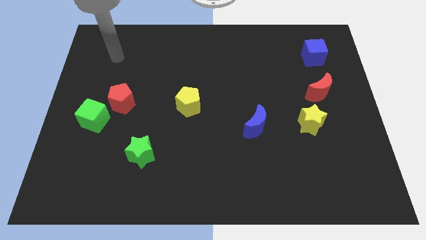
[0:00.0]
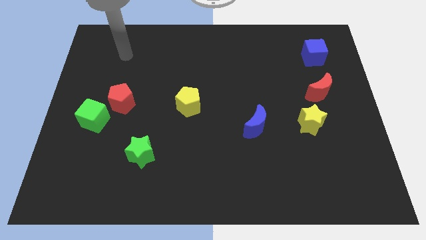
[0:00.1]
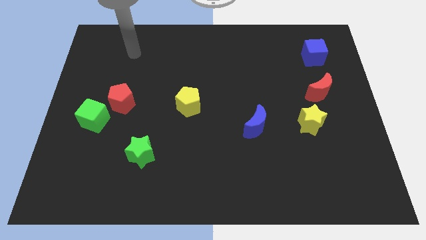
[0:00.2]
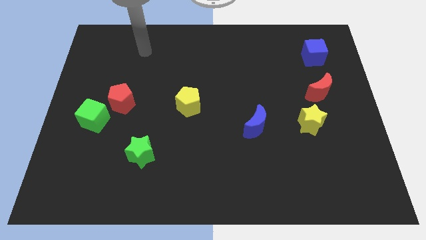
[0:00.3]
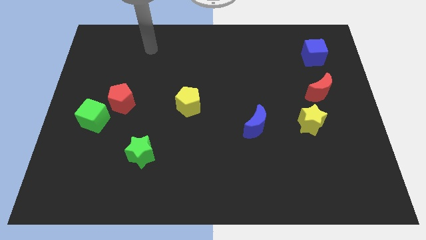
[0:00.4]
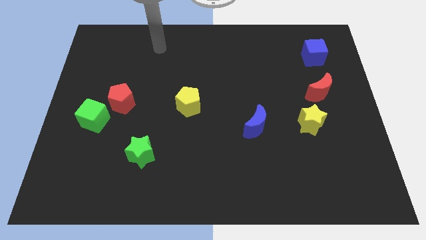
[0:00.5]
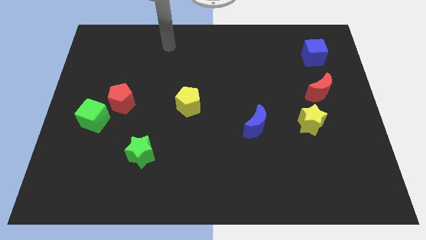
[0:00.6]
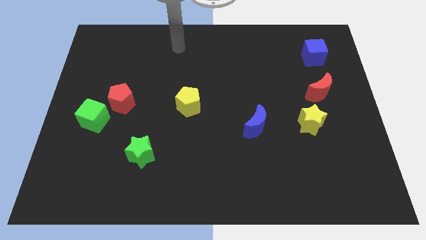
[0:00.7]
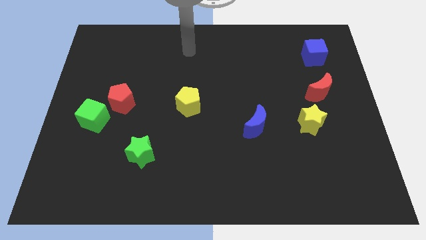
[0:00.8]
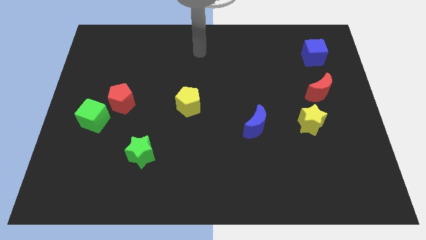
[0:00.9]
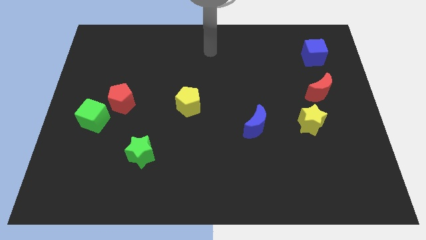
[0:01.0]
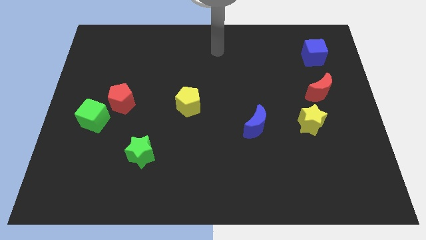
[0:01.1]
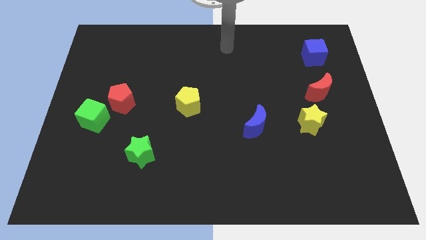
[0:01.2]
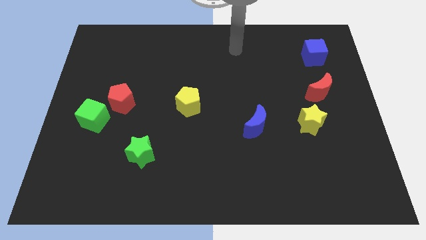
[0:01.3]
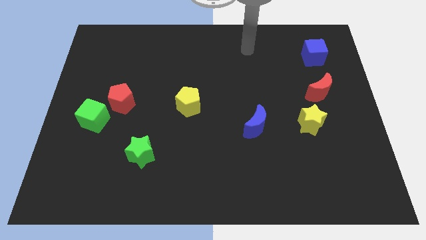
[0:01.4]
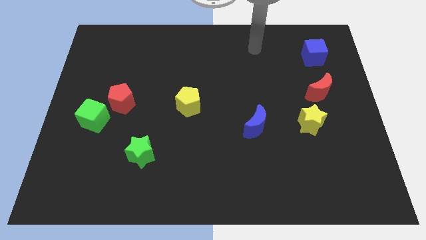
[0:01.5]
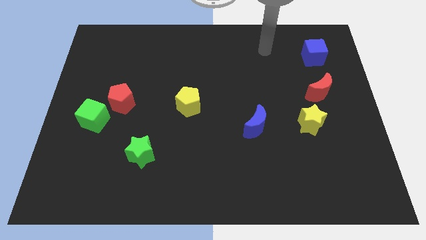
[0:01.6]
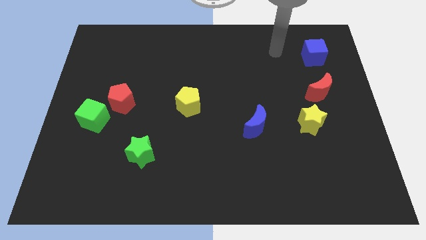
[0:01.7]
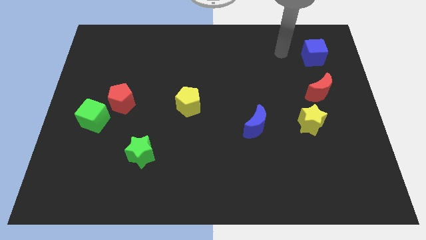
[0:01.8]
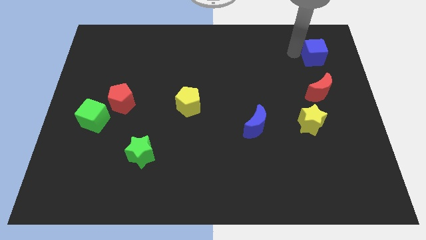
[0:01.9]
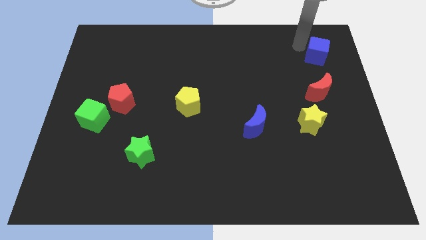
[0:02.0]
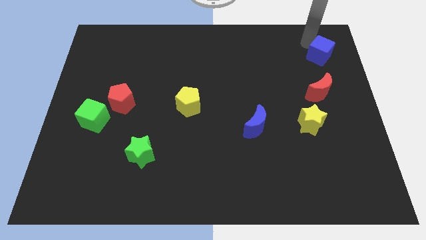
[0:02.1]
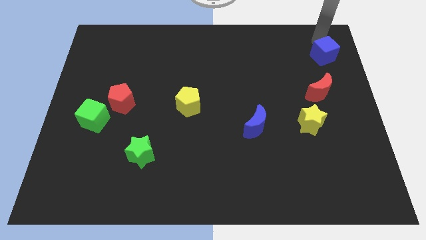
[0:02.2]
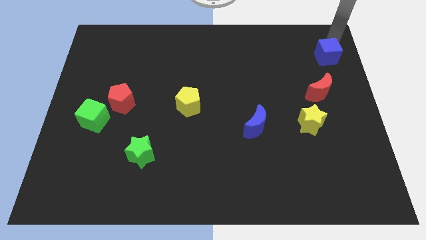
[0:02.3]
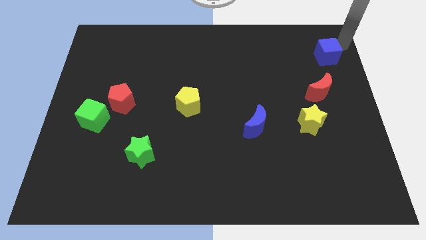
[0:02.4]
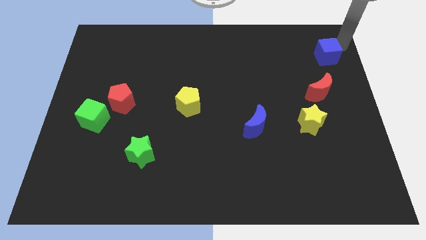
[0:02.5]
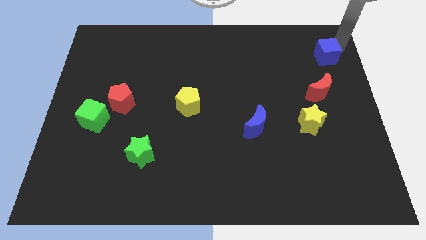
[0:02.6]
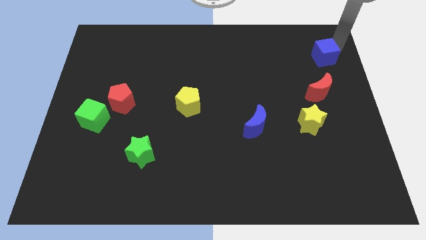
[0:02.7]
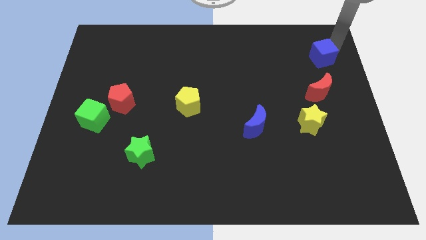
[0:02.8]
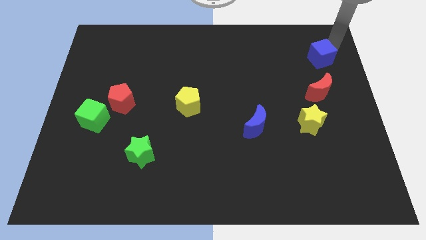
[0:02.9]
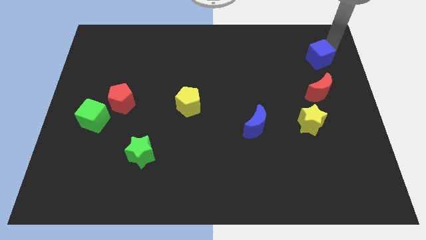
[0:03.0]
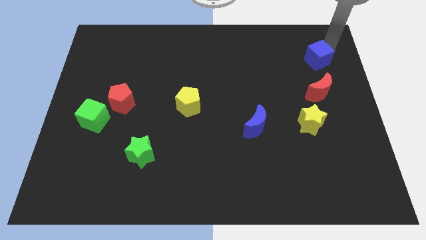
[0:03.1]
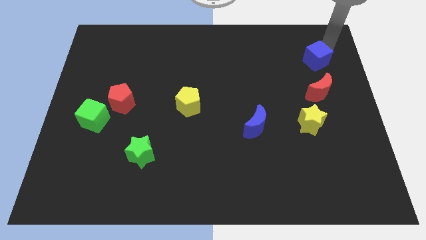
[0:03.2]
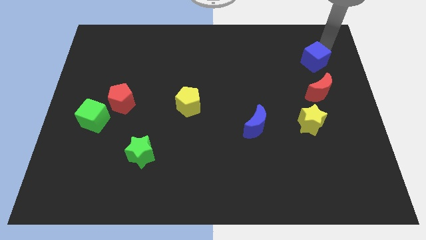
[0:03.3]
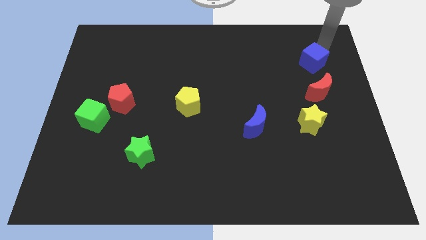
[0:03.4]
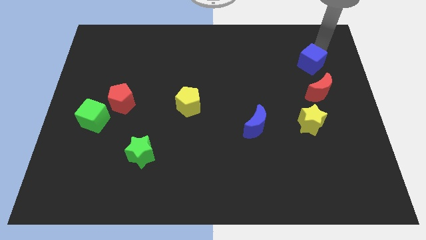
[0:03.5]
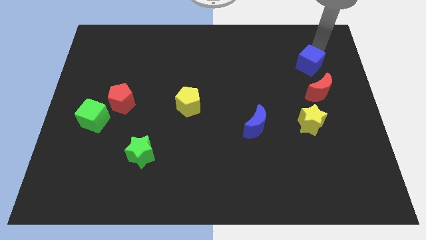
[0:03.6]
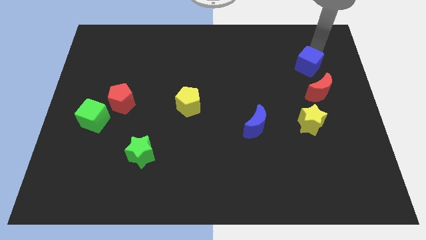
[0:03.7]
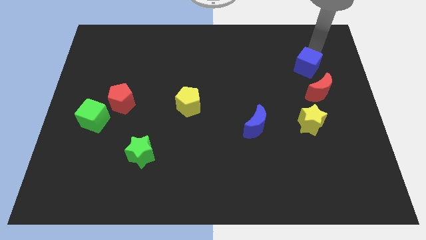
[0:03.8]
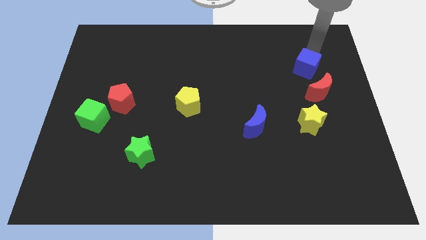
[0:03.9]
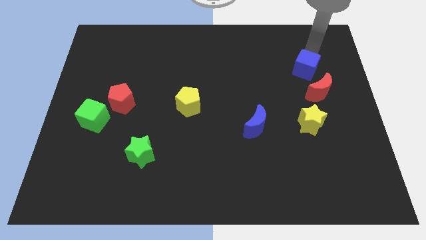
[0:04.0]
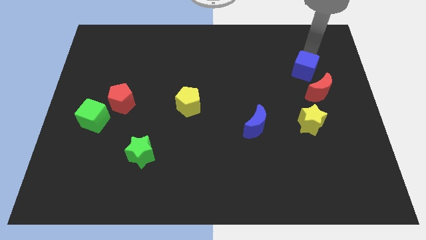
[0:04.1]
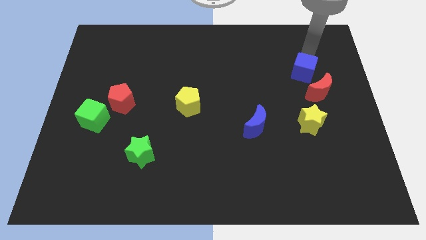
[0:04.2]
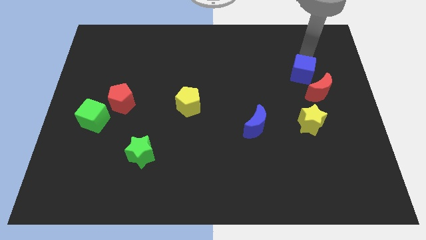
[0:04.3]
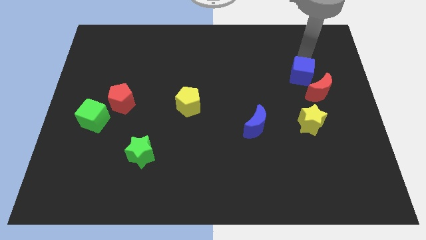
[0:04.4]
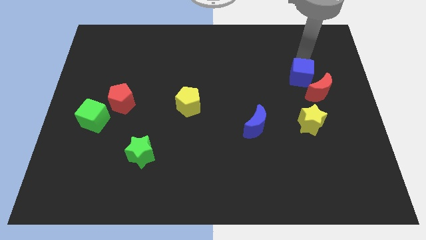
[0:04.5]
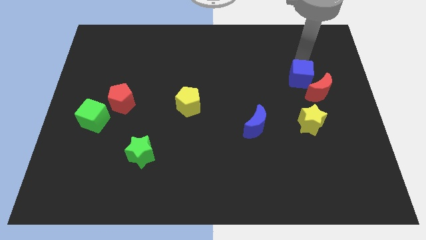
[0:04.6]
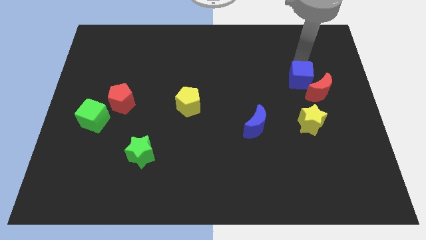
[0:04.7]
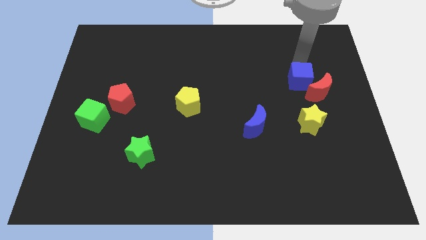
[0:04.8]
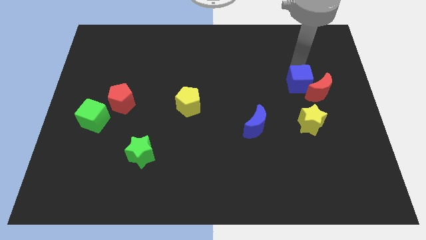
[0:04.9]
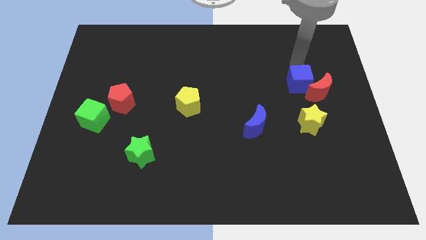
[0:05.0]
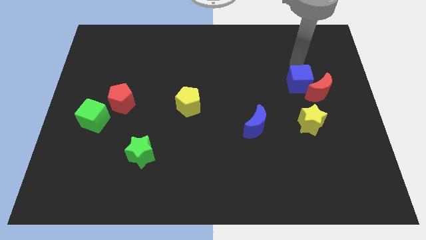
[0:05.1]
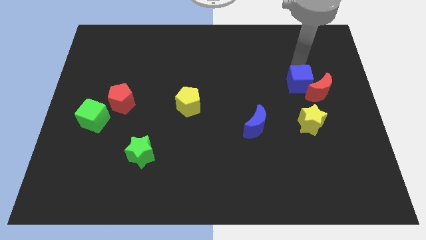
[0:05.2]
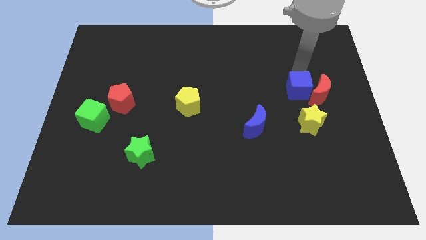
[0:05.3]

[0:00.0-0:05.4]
put the blue cube to the bottom left of the red moon

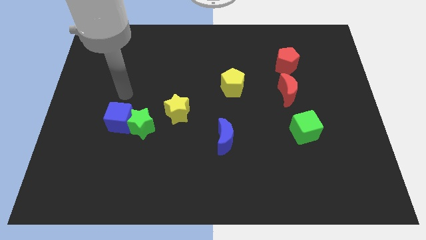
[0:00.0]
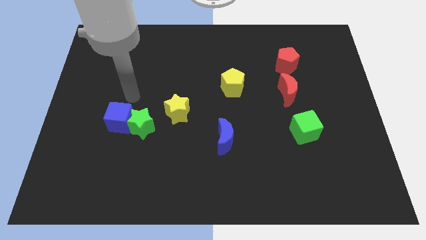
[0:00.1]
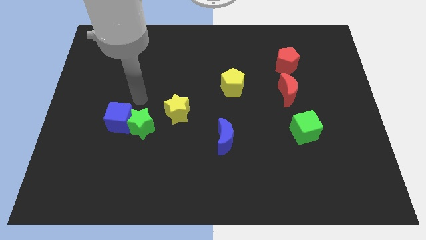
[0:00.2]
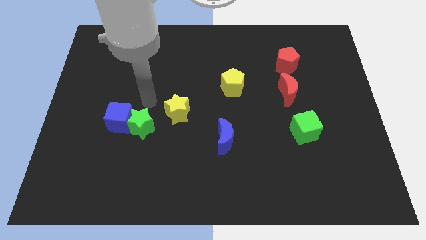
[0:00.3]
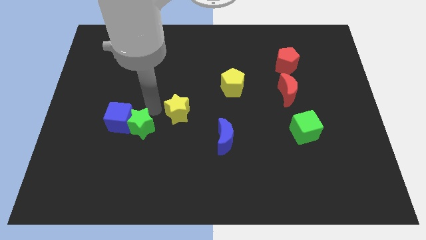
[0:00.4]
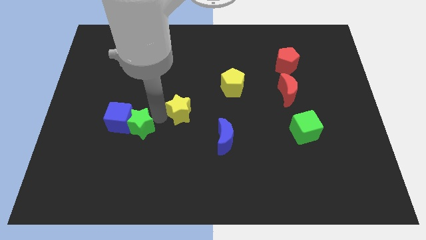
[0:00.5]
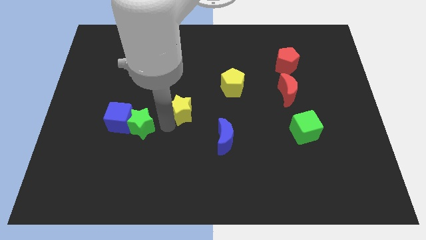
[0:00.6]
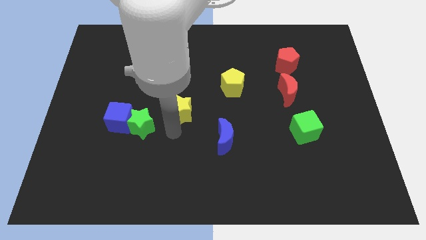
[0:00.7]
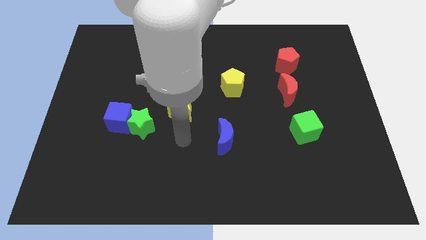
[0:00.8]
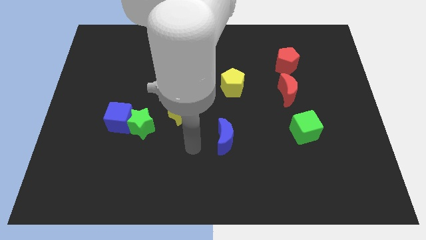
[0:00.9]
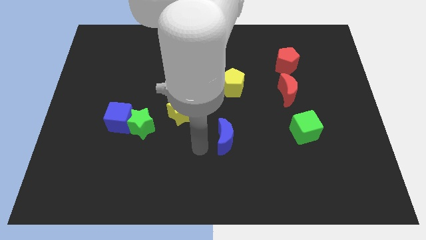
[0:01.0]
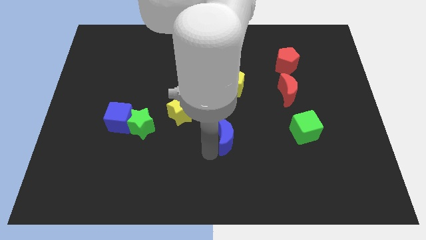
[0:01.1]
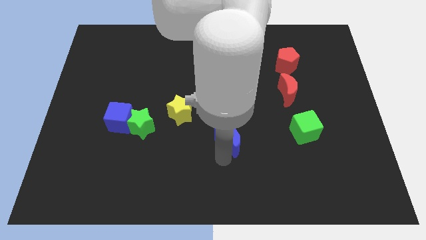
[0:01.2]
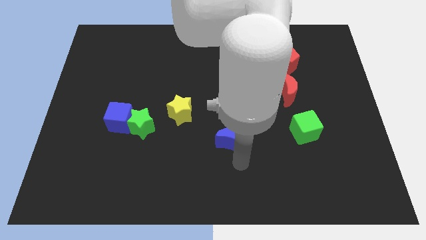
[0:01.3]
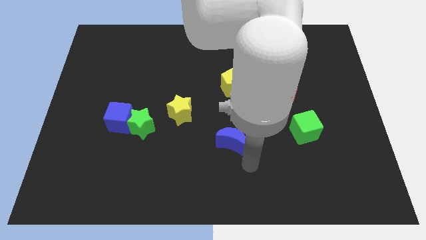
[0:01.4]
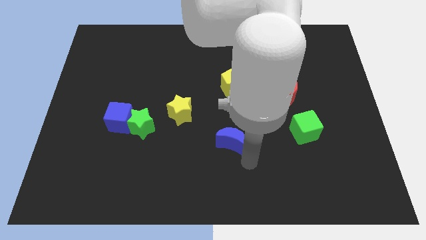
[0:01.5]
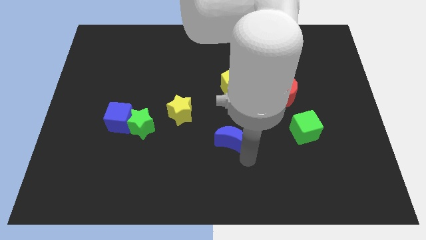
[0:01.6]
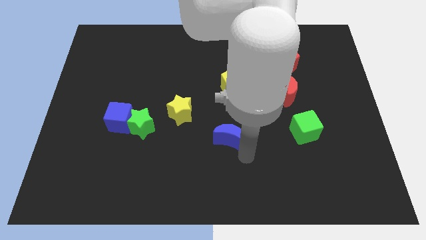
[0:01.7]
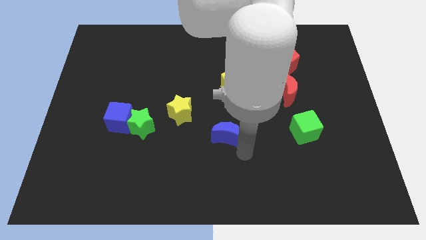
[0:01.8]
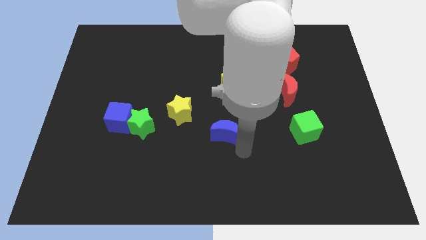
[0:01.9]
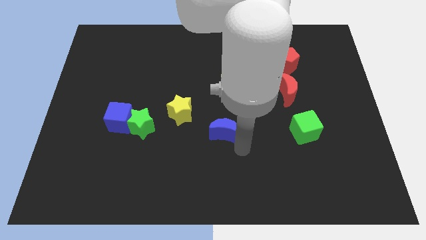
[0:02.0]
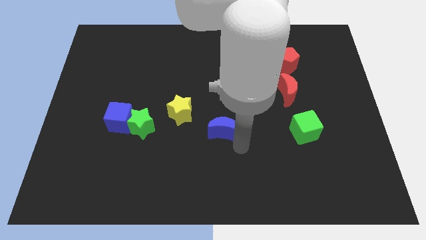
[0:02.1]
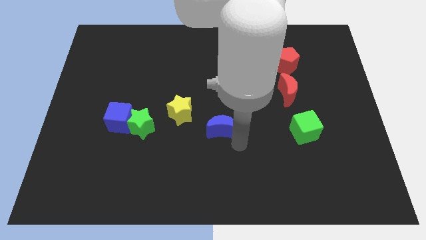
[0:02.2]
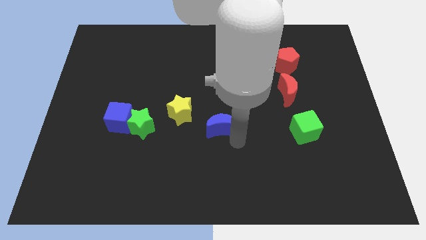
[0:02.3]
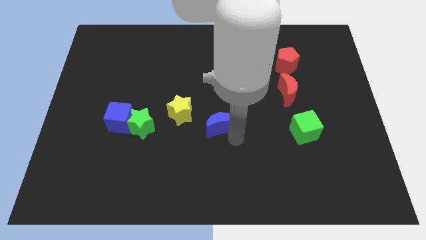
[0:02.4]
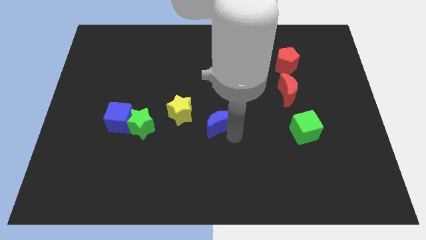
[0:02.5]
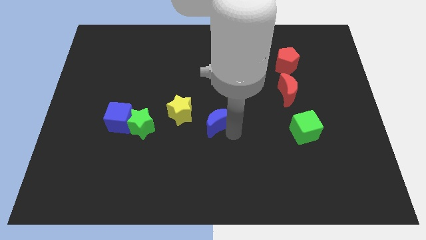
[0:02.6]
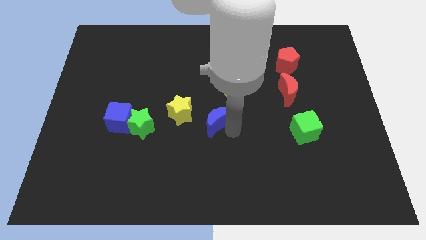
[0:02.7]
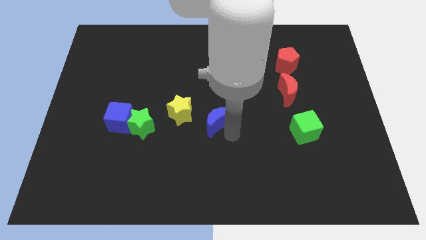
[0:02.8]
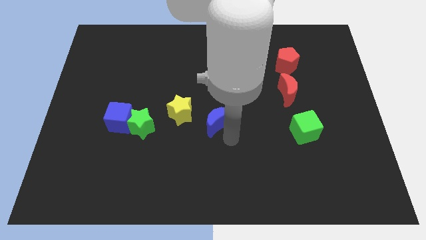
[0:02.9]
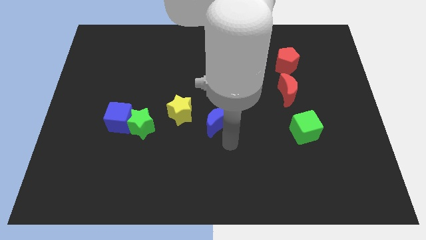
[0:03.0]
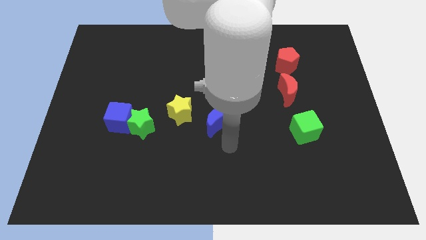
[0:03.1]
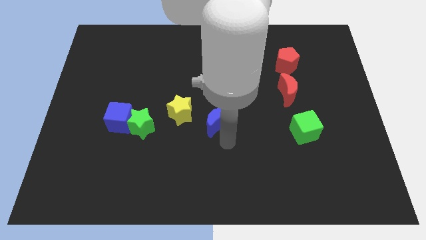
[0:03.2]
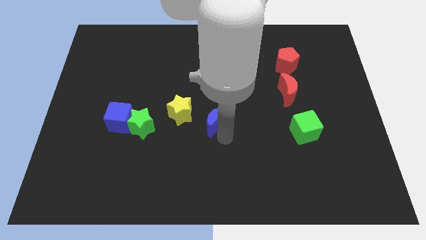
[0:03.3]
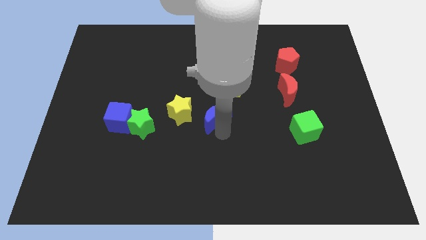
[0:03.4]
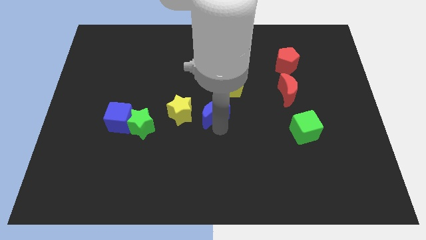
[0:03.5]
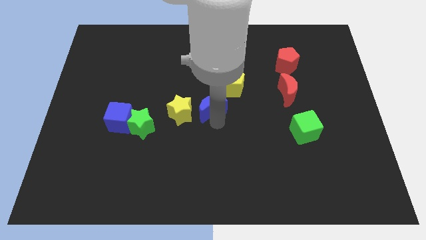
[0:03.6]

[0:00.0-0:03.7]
push the blue moon to the top right side of the yellow star
